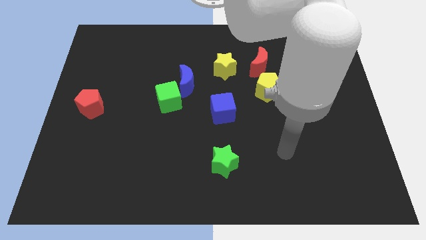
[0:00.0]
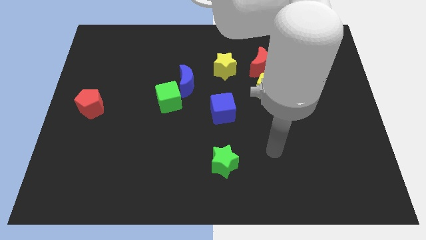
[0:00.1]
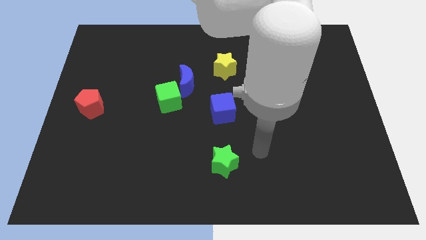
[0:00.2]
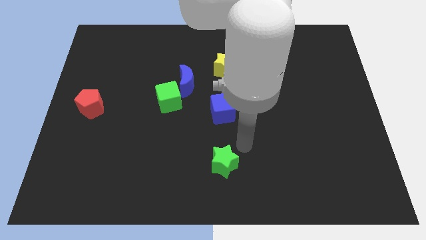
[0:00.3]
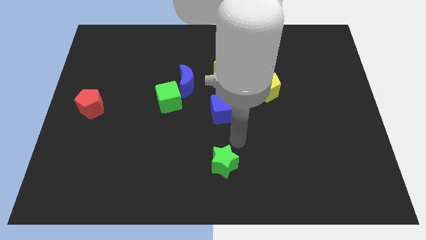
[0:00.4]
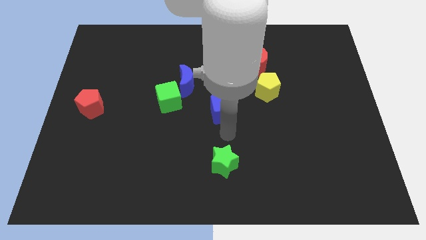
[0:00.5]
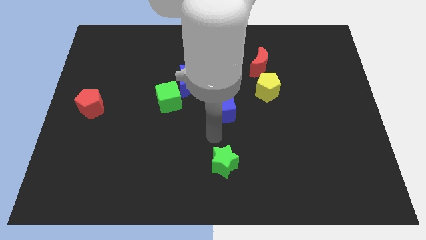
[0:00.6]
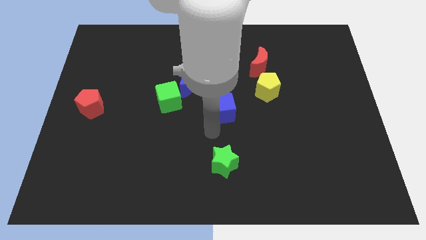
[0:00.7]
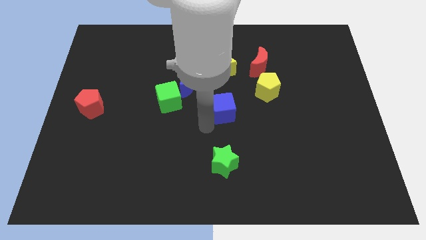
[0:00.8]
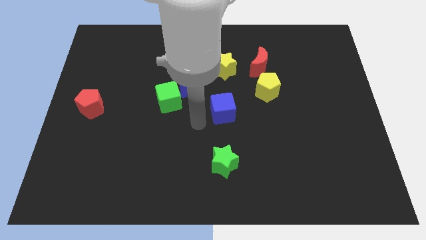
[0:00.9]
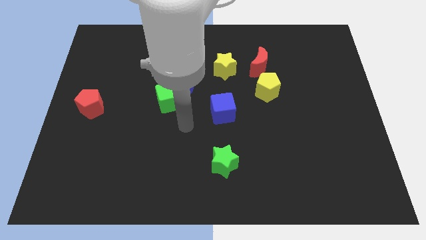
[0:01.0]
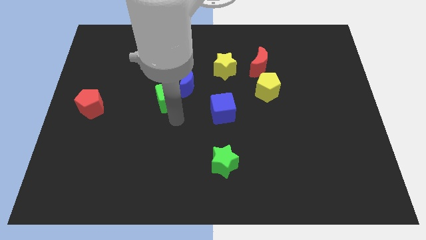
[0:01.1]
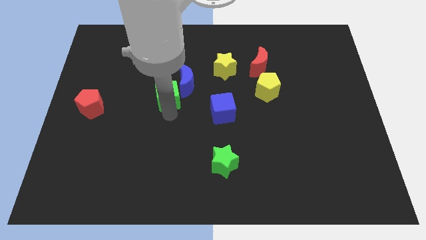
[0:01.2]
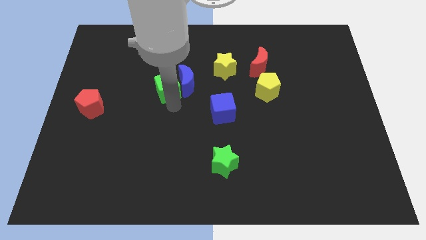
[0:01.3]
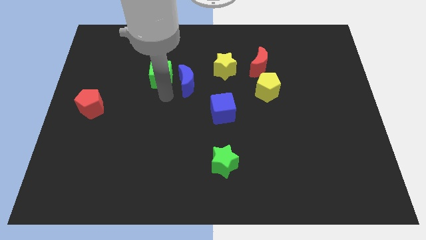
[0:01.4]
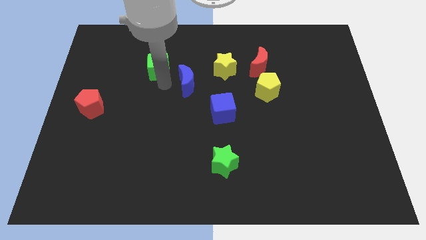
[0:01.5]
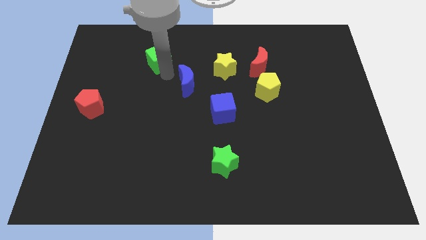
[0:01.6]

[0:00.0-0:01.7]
separate the blue moon from the green cube

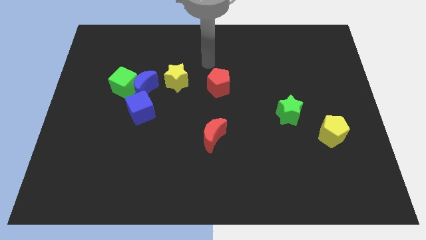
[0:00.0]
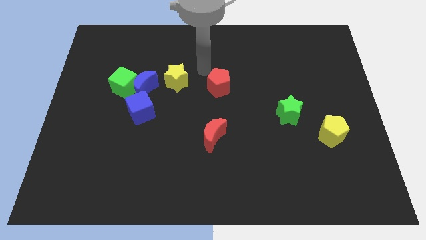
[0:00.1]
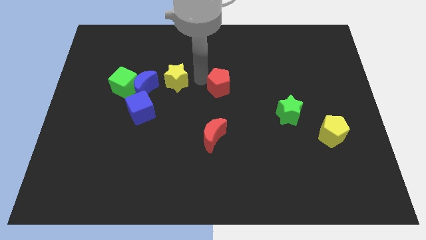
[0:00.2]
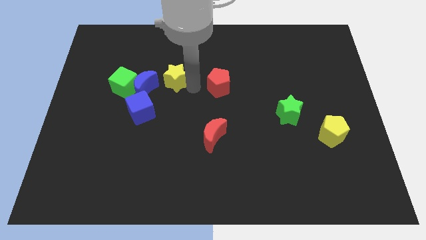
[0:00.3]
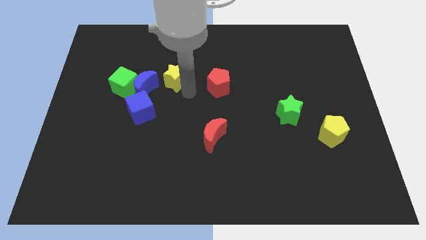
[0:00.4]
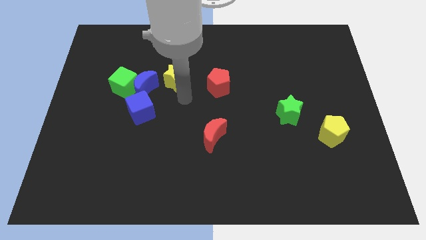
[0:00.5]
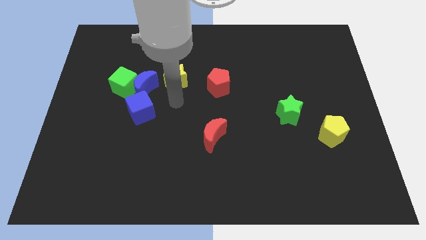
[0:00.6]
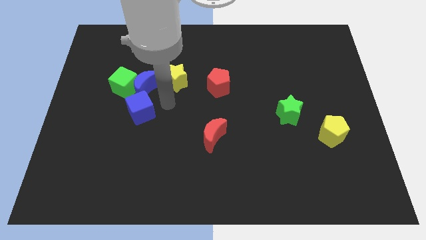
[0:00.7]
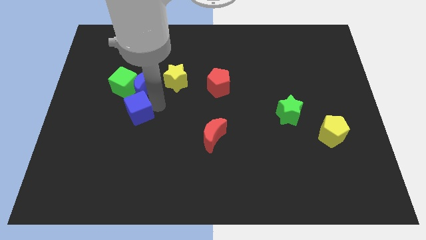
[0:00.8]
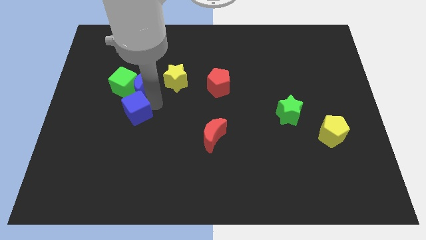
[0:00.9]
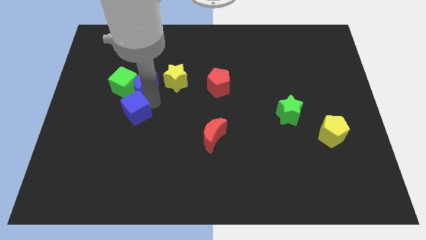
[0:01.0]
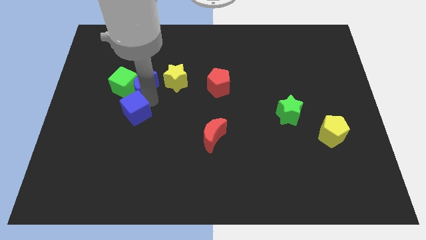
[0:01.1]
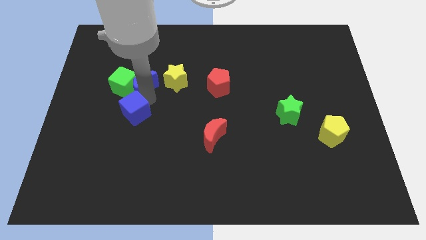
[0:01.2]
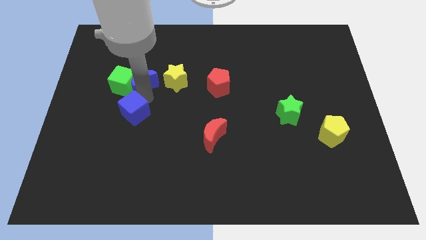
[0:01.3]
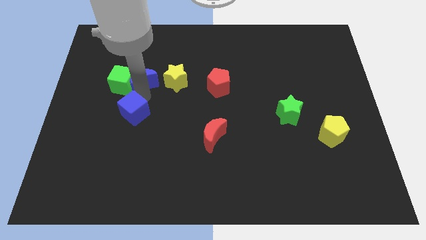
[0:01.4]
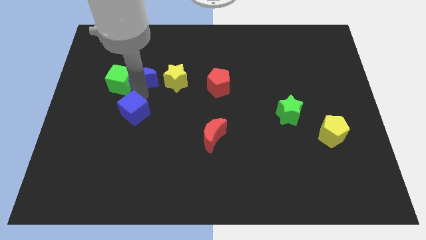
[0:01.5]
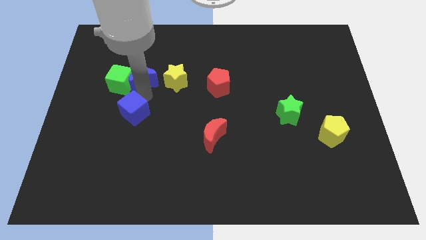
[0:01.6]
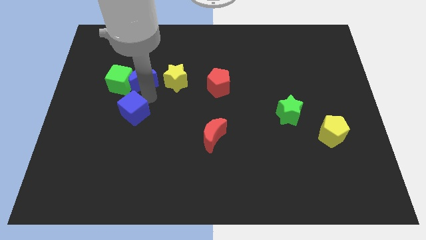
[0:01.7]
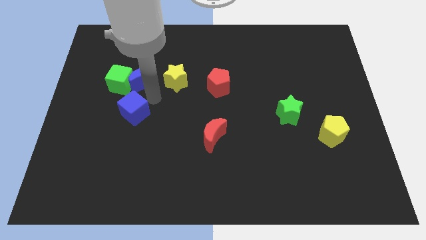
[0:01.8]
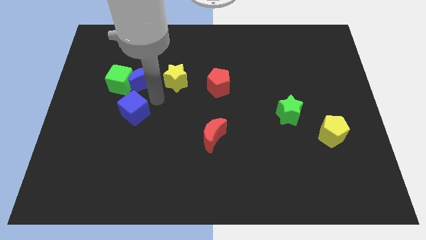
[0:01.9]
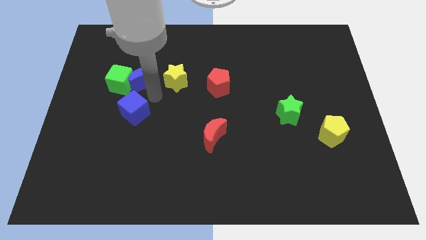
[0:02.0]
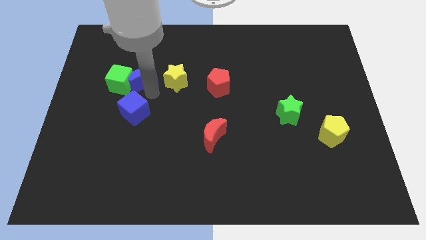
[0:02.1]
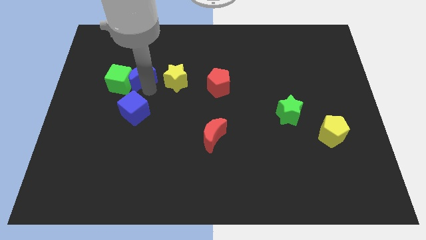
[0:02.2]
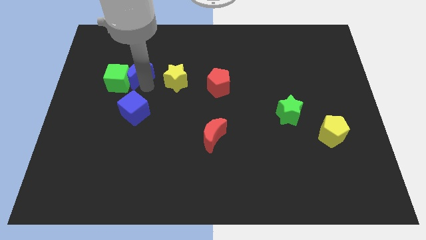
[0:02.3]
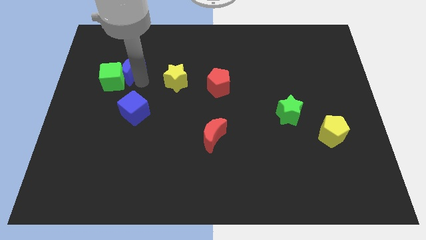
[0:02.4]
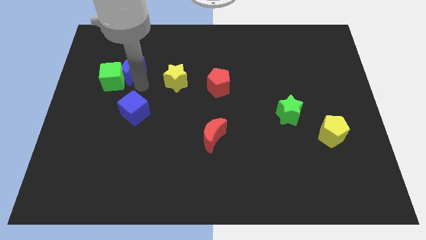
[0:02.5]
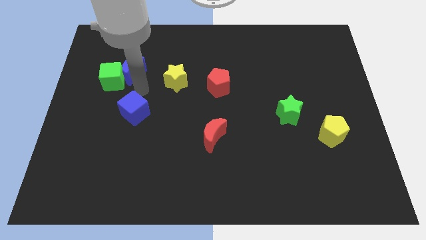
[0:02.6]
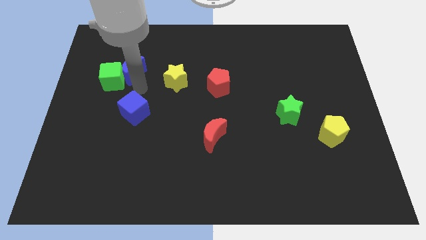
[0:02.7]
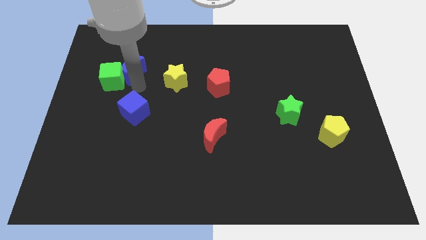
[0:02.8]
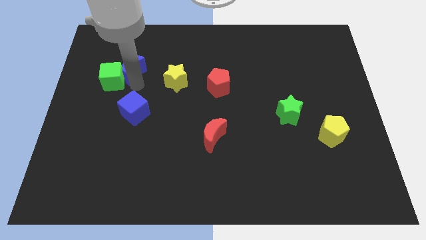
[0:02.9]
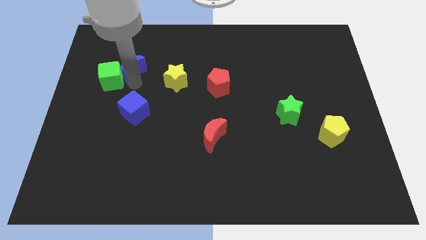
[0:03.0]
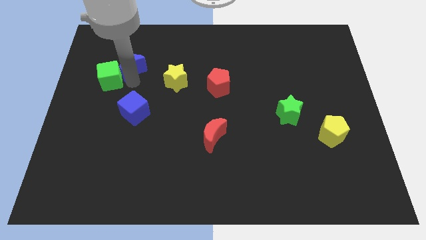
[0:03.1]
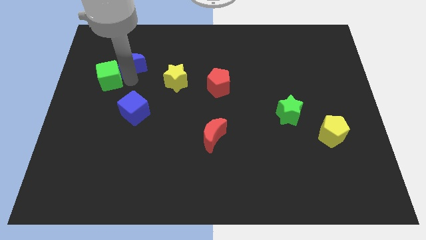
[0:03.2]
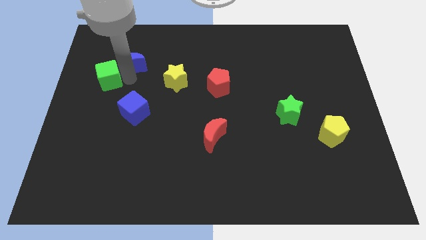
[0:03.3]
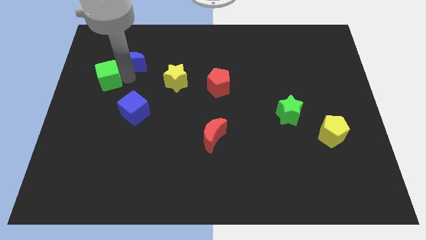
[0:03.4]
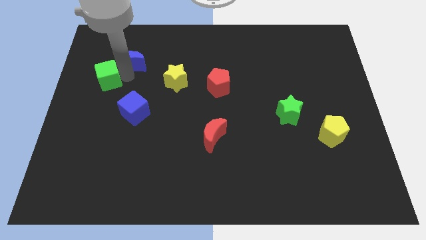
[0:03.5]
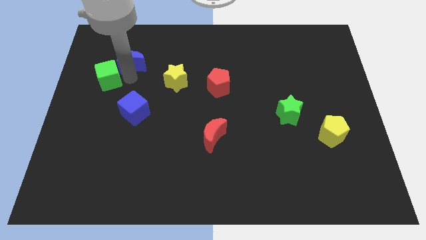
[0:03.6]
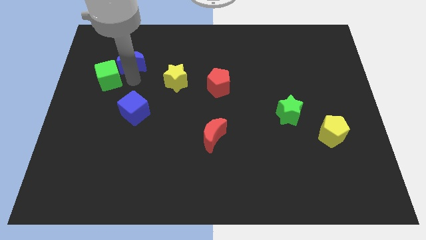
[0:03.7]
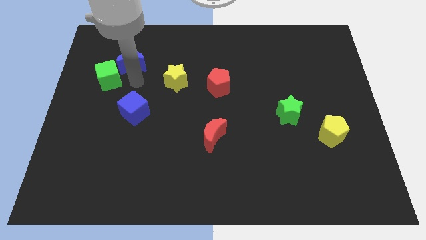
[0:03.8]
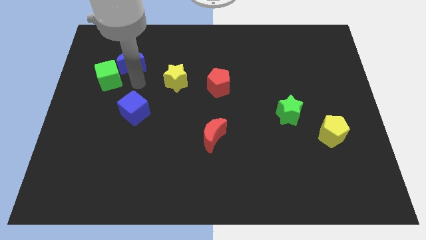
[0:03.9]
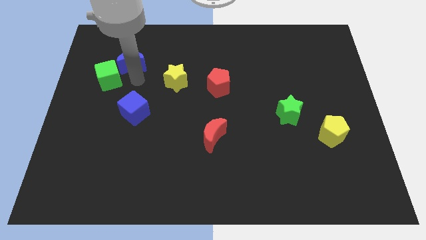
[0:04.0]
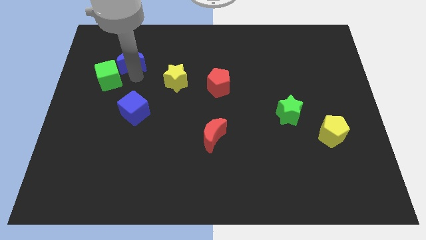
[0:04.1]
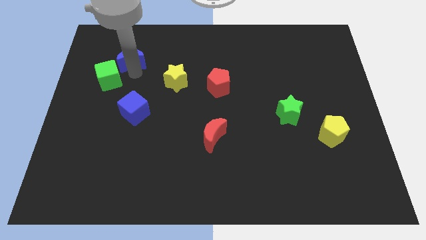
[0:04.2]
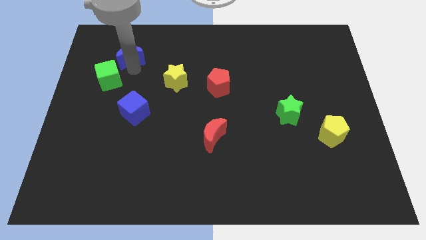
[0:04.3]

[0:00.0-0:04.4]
pull the blue moon apart from the green cube, blue cube, and yellow star

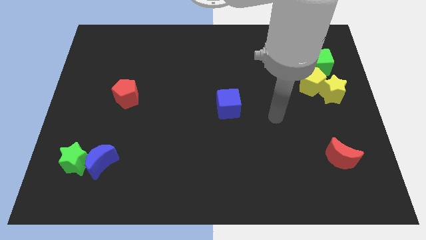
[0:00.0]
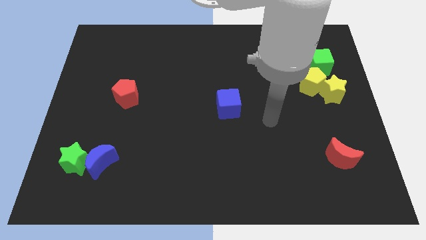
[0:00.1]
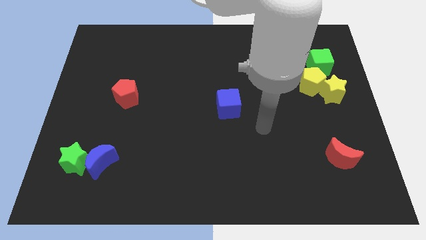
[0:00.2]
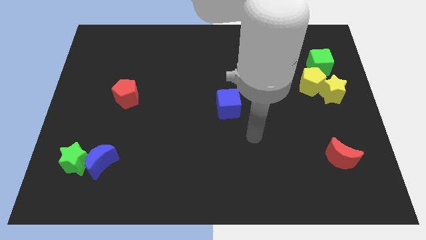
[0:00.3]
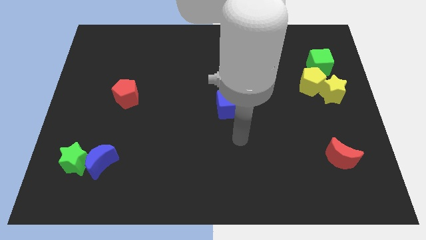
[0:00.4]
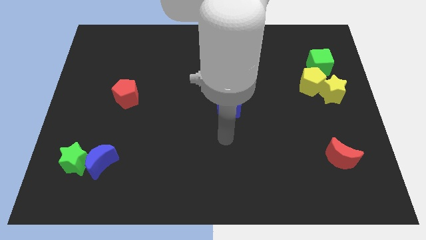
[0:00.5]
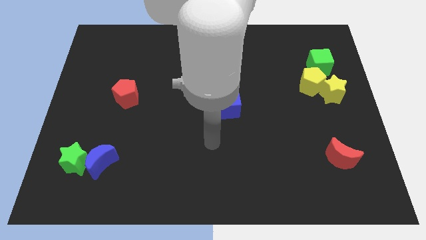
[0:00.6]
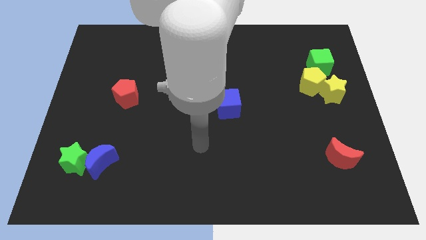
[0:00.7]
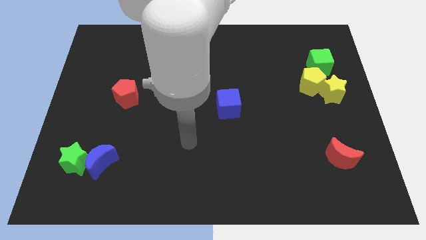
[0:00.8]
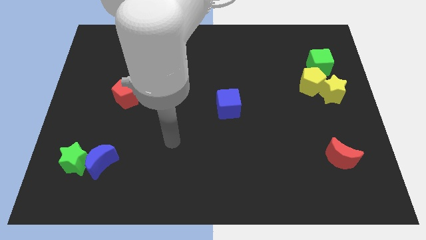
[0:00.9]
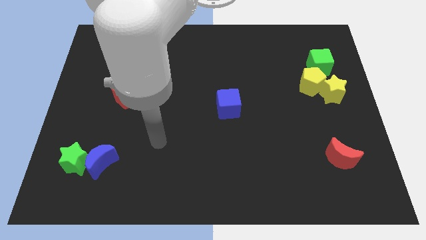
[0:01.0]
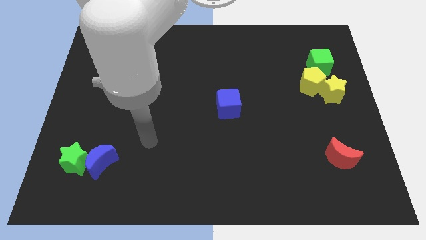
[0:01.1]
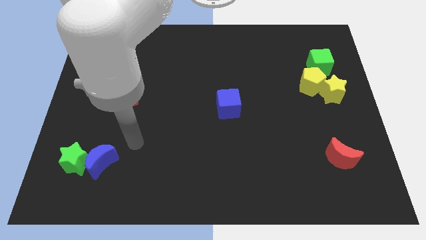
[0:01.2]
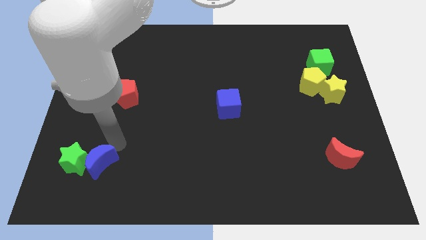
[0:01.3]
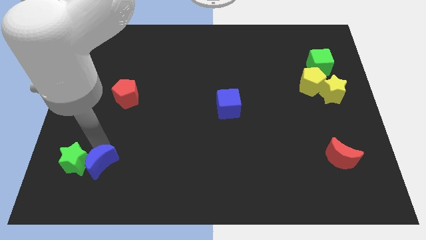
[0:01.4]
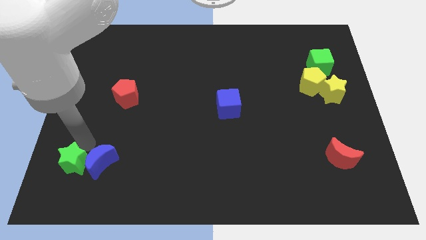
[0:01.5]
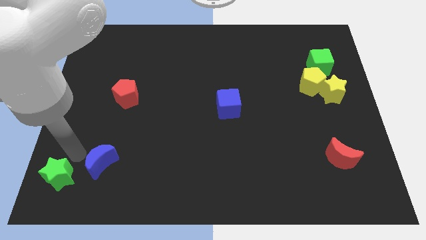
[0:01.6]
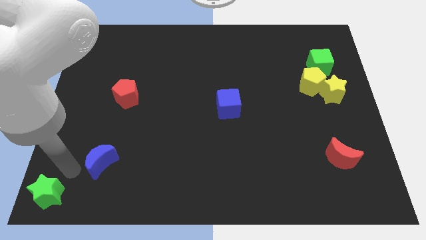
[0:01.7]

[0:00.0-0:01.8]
pull the blue moon apart from the green star

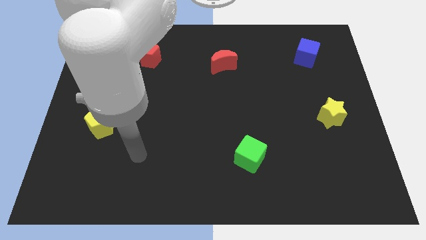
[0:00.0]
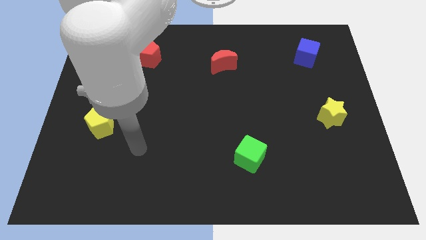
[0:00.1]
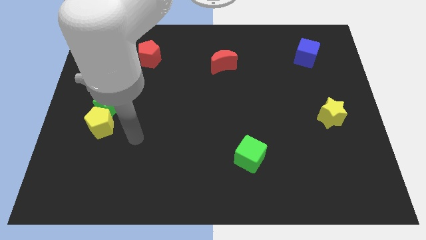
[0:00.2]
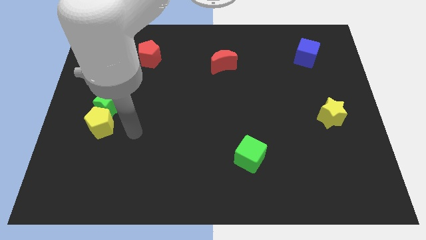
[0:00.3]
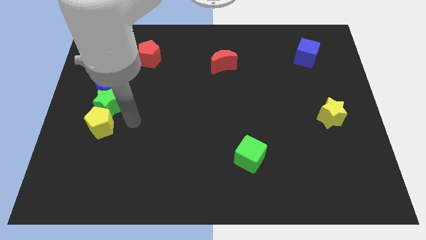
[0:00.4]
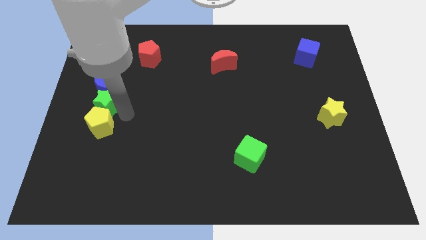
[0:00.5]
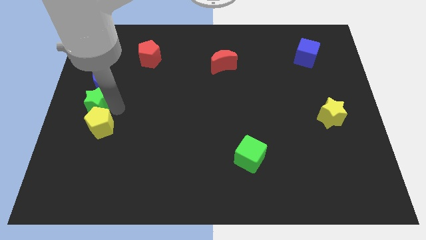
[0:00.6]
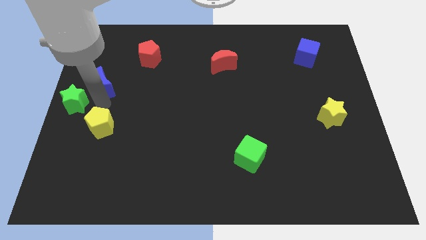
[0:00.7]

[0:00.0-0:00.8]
pull the yellow pentagon apart from the green star

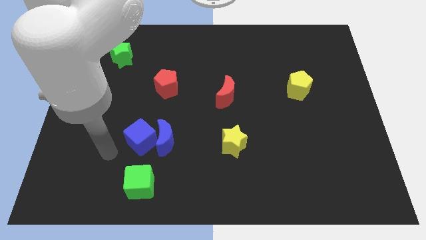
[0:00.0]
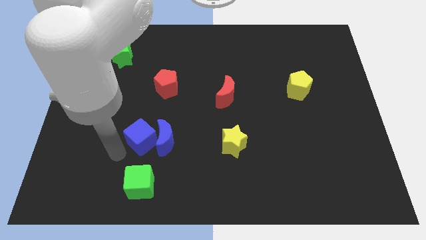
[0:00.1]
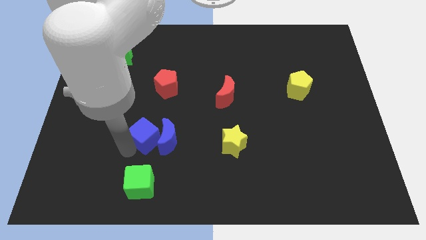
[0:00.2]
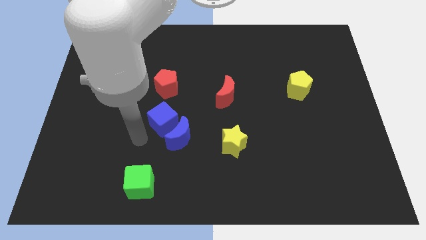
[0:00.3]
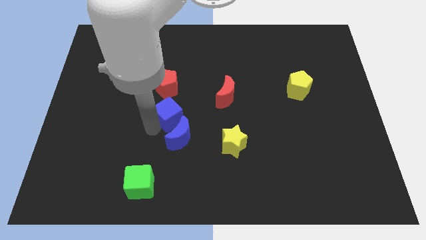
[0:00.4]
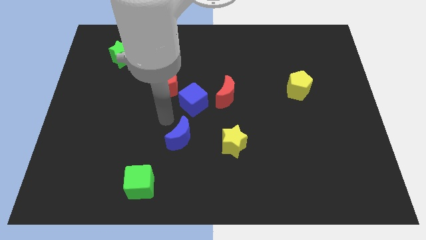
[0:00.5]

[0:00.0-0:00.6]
separate the blue moon from the blue cube
